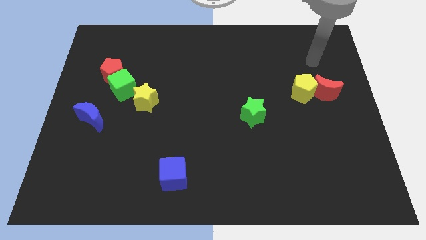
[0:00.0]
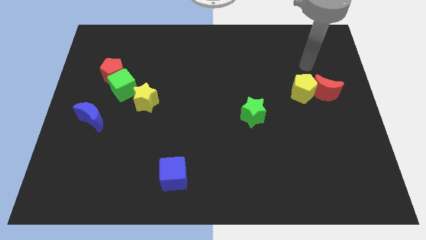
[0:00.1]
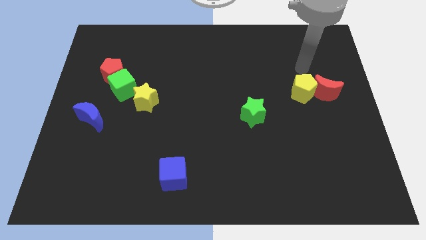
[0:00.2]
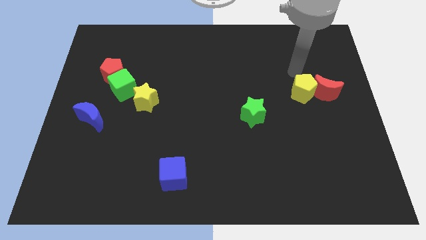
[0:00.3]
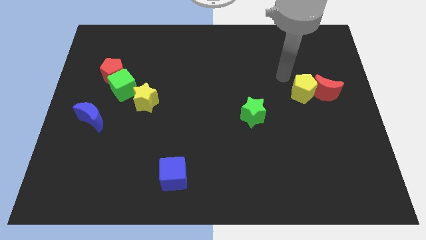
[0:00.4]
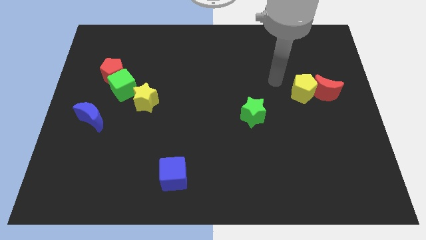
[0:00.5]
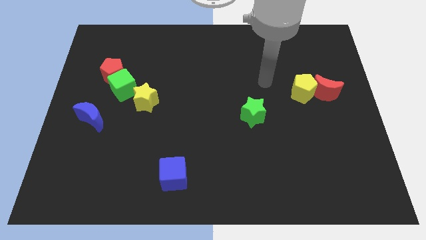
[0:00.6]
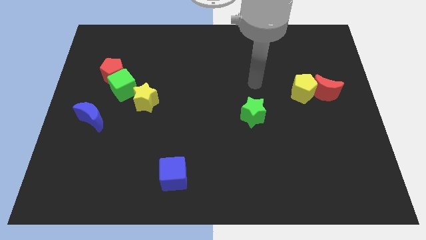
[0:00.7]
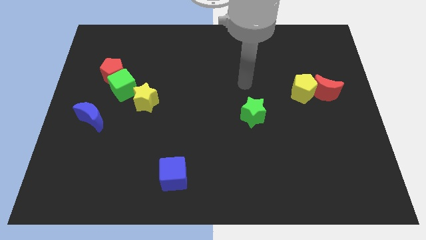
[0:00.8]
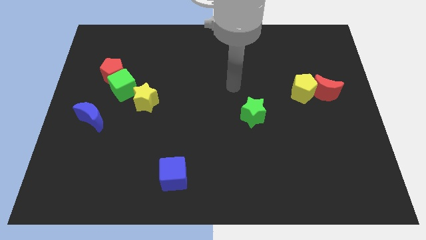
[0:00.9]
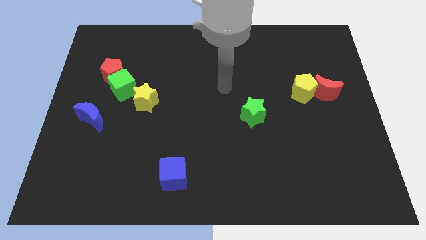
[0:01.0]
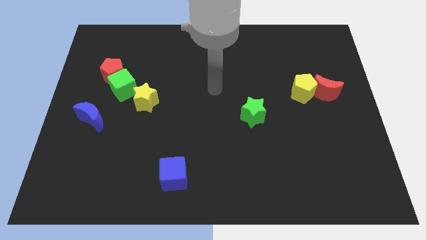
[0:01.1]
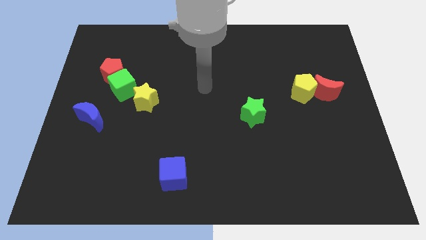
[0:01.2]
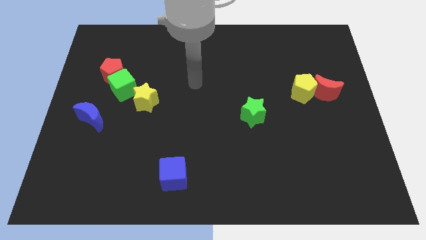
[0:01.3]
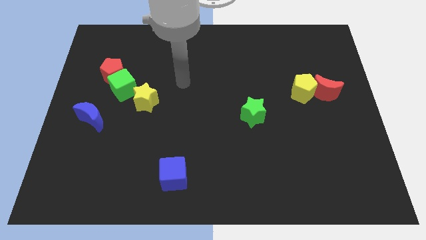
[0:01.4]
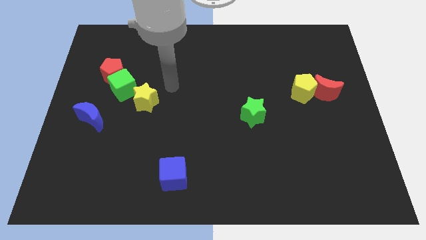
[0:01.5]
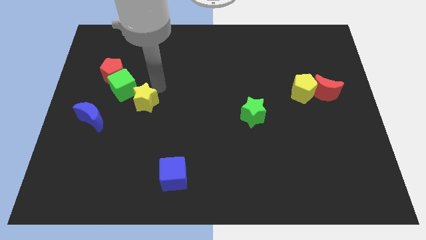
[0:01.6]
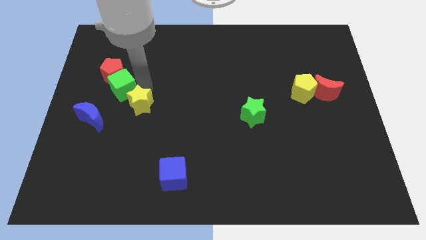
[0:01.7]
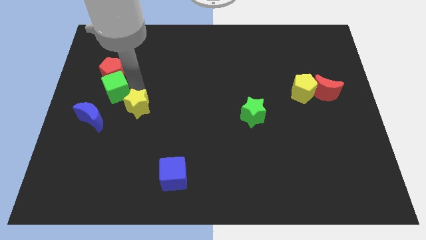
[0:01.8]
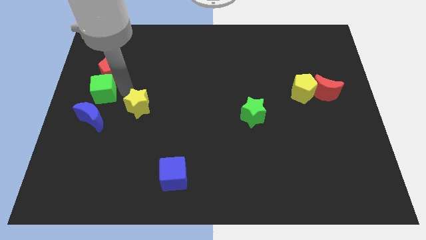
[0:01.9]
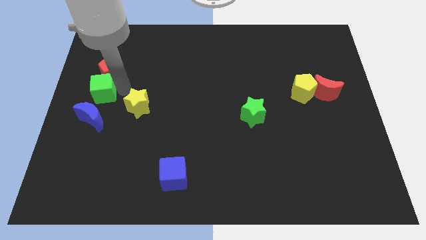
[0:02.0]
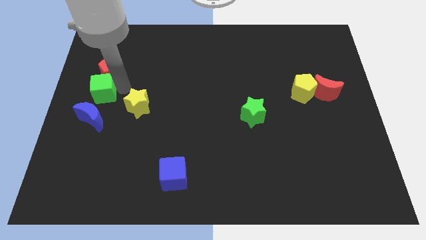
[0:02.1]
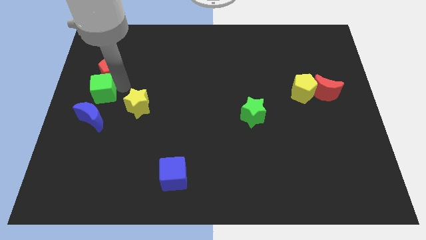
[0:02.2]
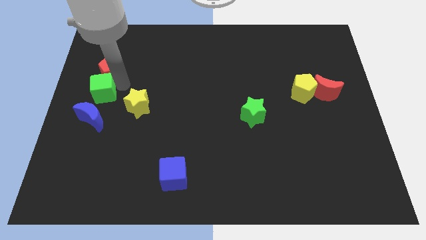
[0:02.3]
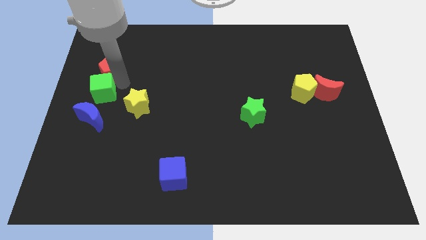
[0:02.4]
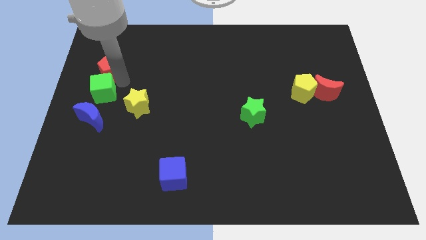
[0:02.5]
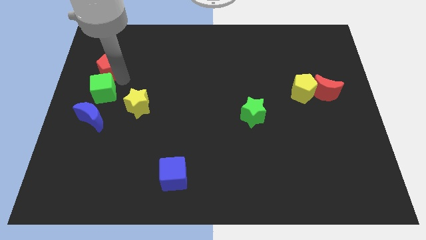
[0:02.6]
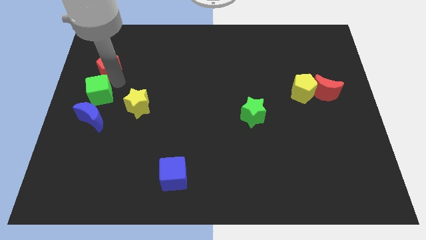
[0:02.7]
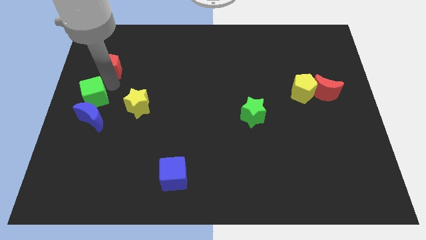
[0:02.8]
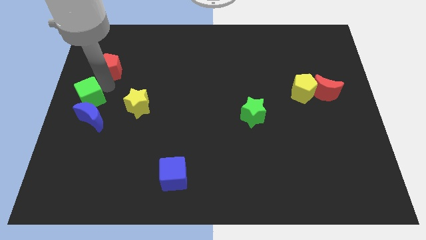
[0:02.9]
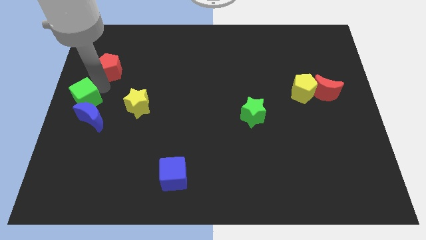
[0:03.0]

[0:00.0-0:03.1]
separate the red pentagon from the green cube

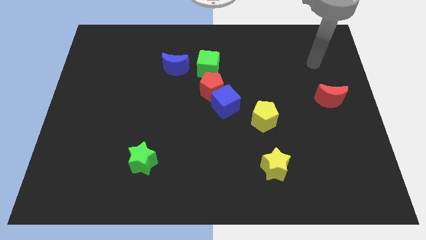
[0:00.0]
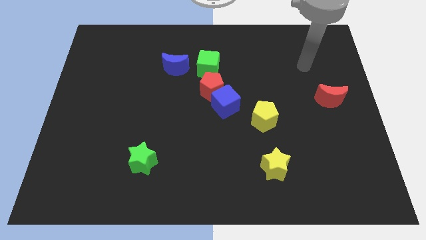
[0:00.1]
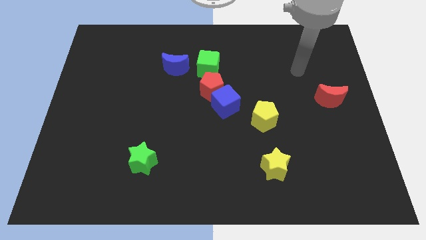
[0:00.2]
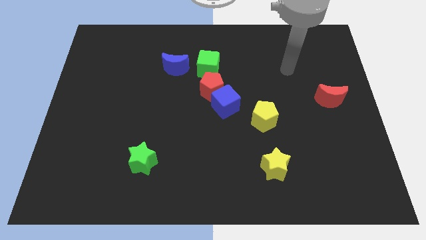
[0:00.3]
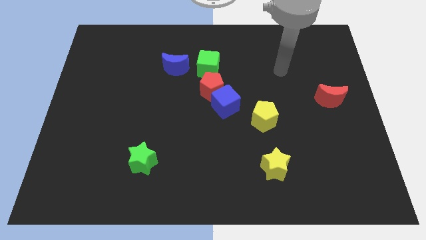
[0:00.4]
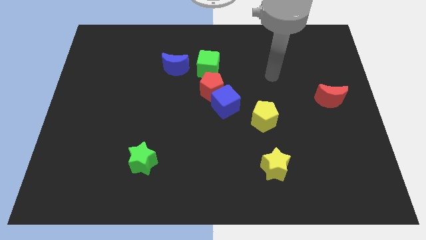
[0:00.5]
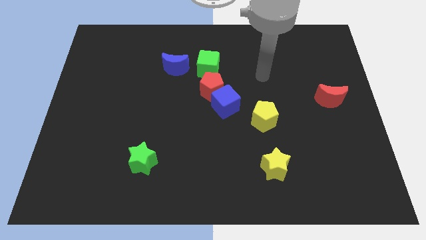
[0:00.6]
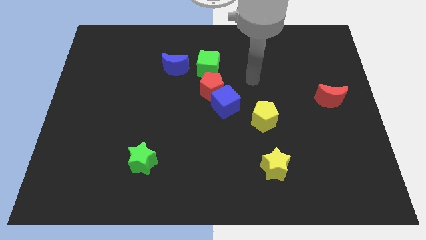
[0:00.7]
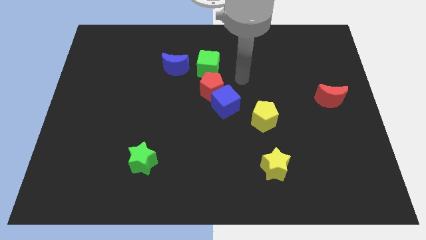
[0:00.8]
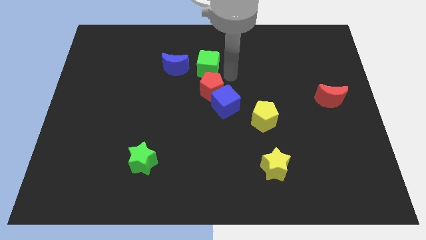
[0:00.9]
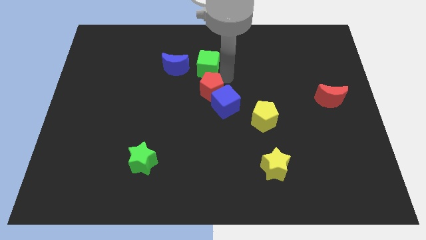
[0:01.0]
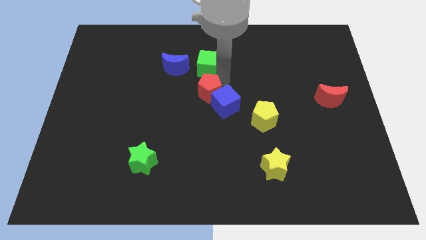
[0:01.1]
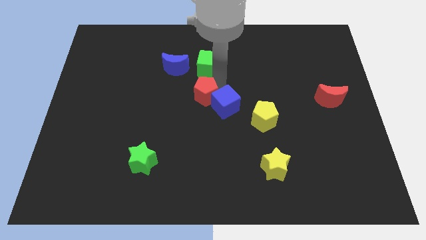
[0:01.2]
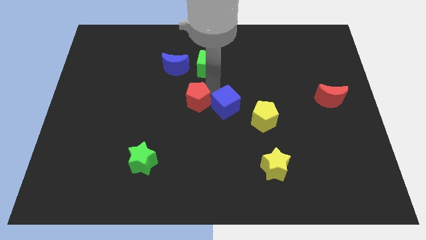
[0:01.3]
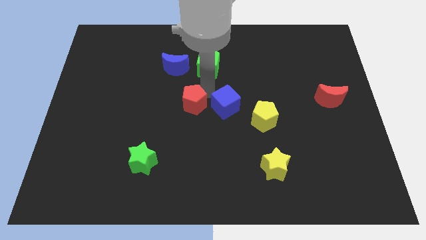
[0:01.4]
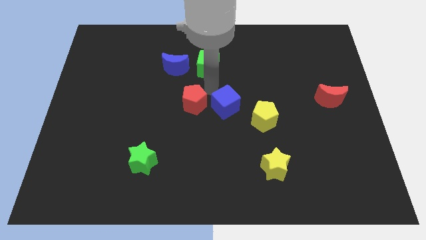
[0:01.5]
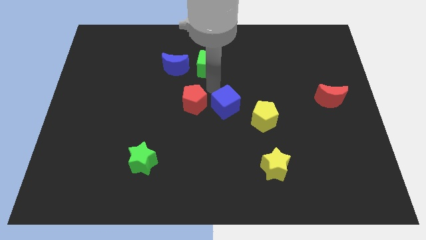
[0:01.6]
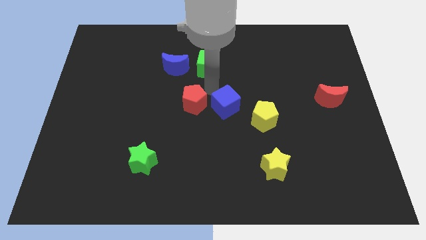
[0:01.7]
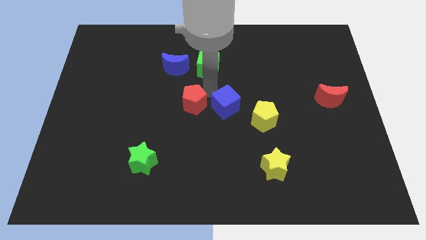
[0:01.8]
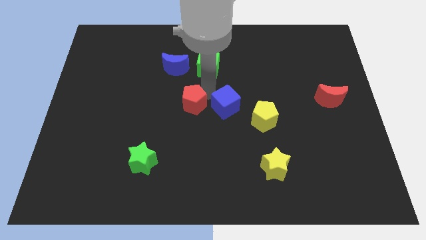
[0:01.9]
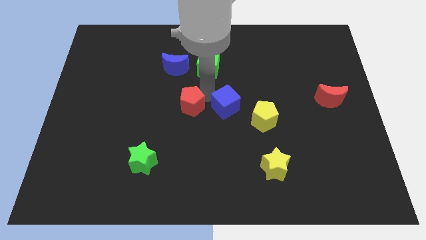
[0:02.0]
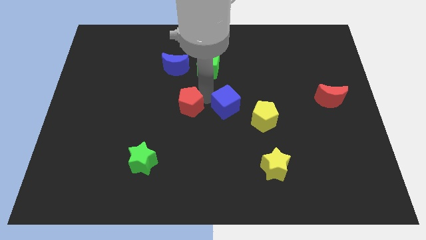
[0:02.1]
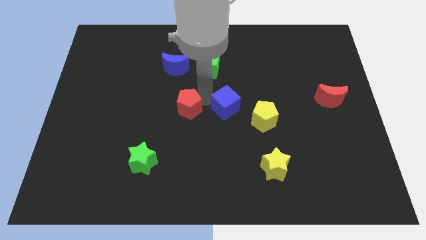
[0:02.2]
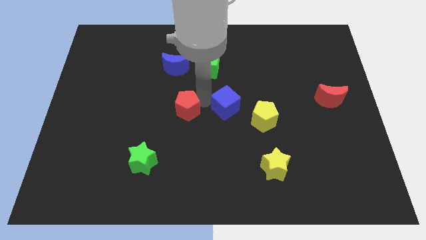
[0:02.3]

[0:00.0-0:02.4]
separate the red pentagon from the blue cube and green cube

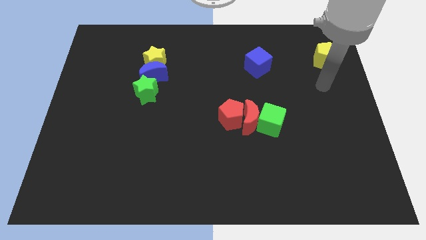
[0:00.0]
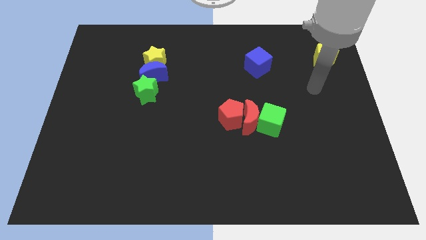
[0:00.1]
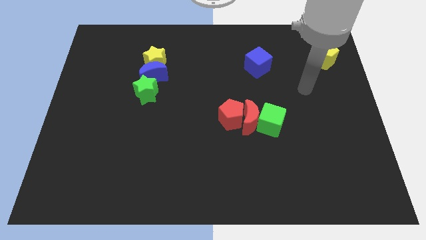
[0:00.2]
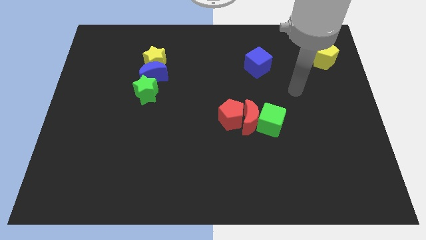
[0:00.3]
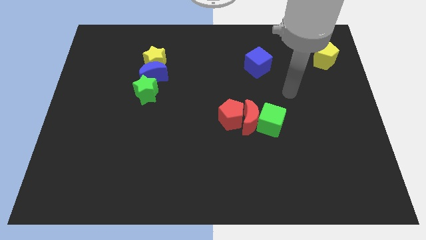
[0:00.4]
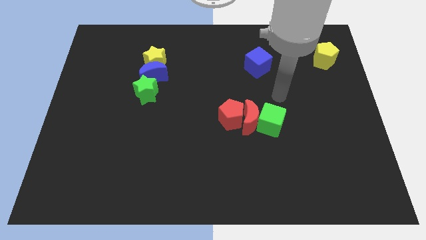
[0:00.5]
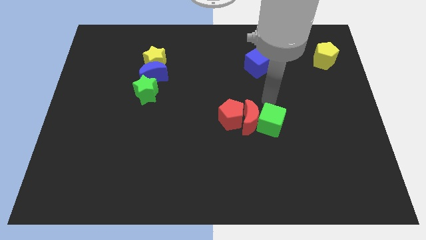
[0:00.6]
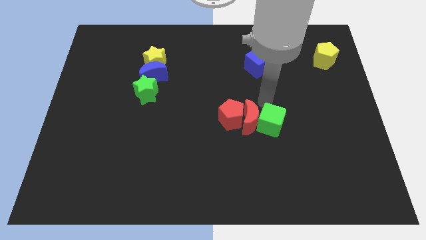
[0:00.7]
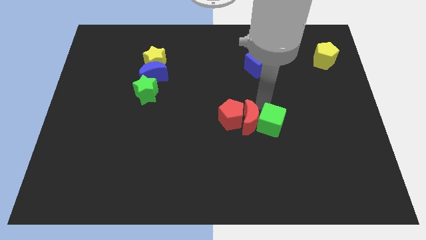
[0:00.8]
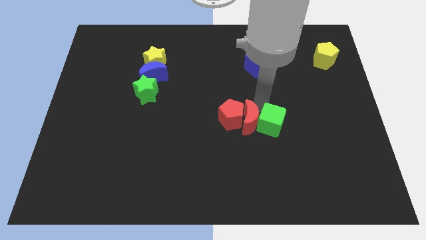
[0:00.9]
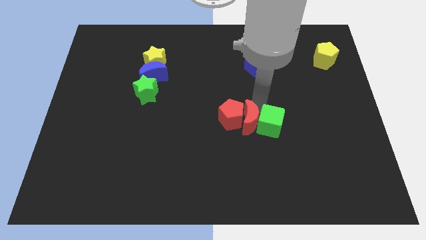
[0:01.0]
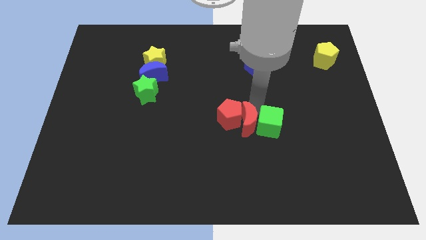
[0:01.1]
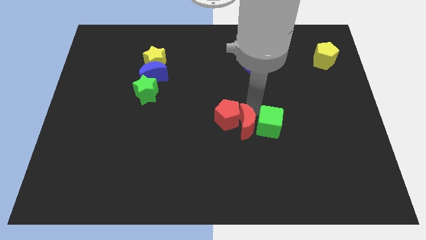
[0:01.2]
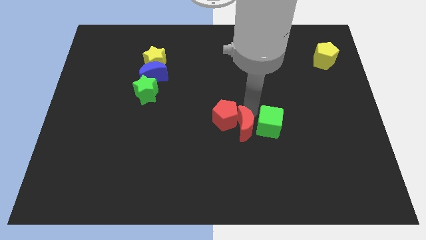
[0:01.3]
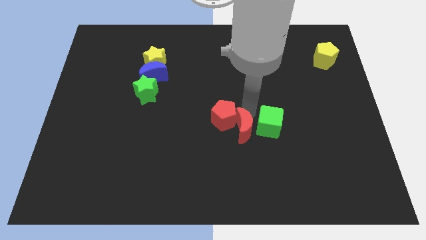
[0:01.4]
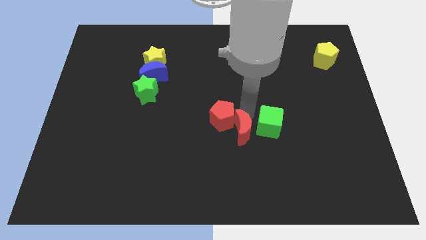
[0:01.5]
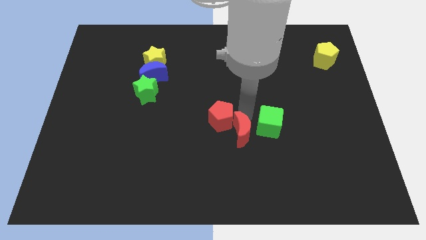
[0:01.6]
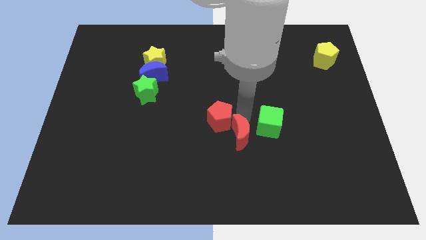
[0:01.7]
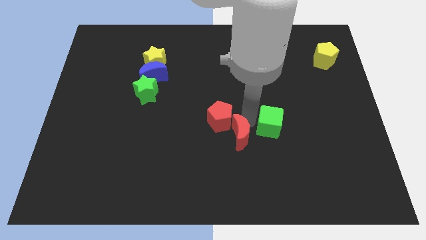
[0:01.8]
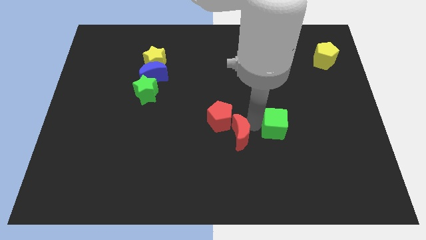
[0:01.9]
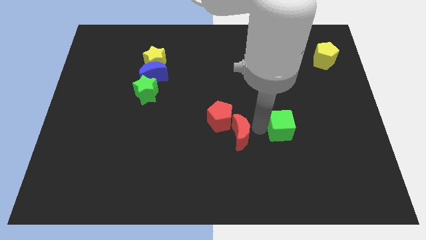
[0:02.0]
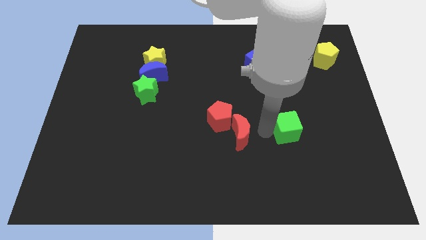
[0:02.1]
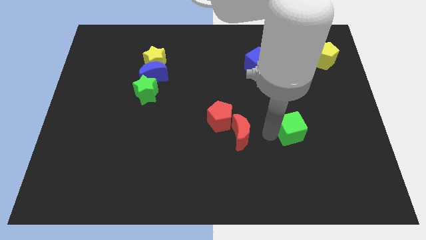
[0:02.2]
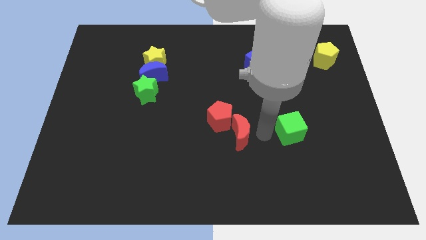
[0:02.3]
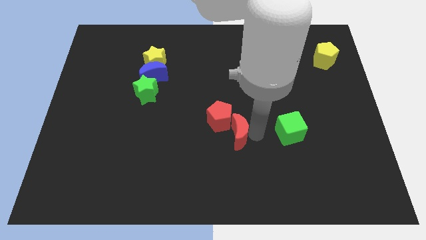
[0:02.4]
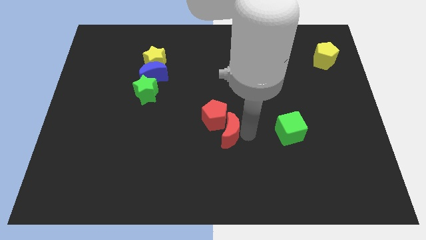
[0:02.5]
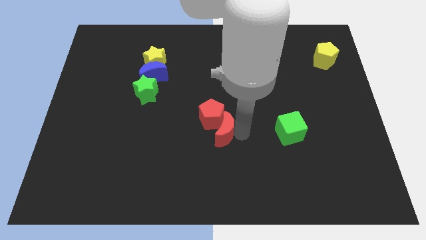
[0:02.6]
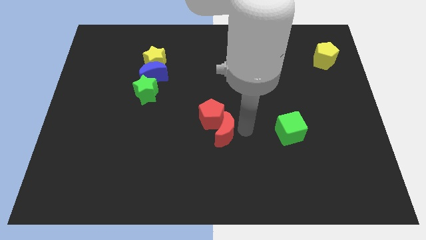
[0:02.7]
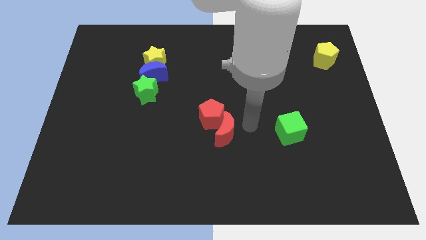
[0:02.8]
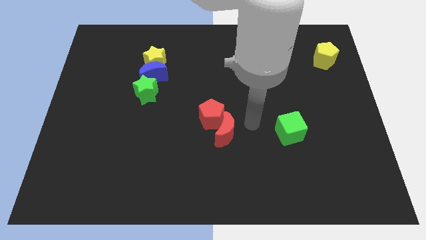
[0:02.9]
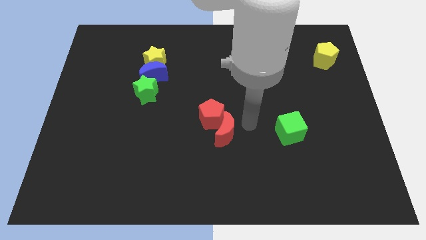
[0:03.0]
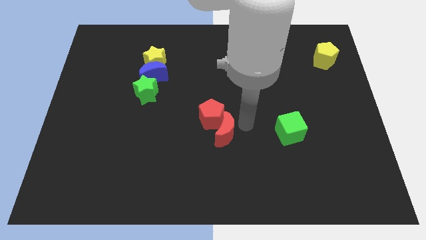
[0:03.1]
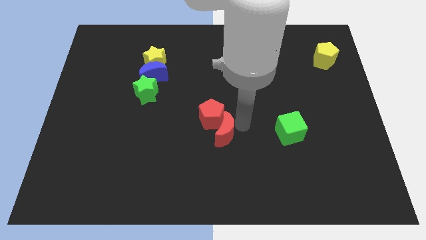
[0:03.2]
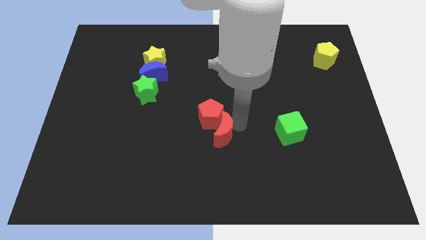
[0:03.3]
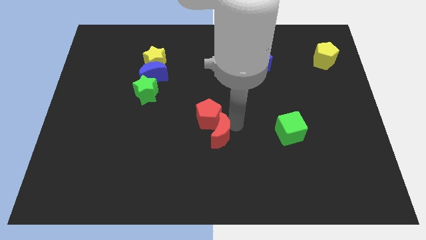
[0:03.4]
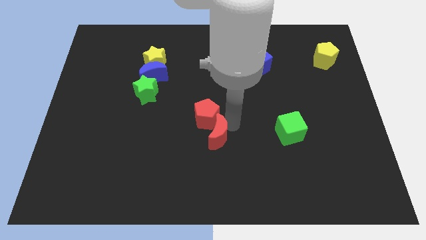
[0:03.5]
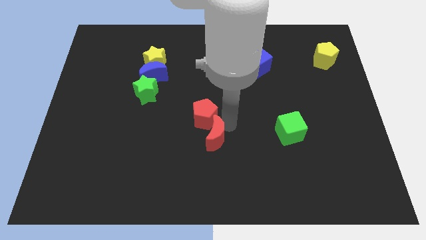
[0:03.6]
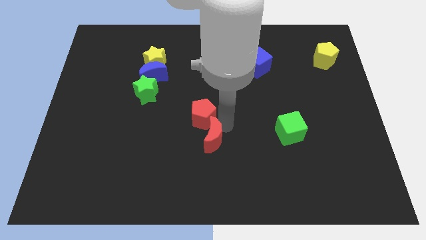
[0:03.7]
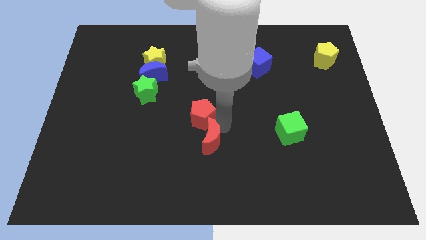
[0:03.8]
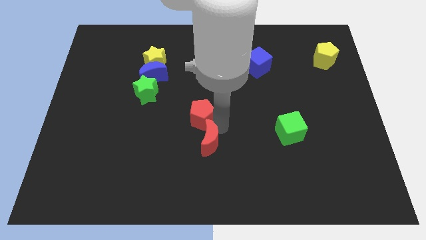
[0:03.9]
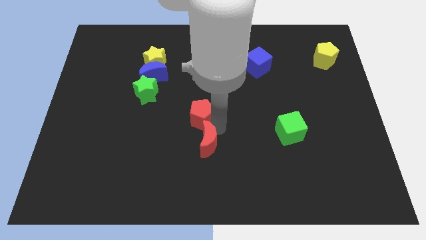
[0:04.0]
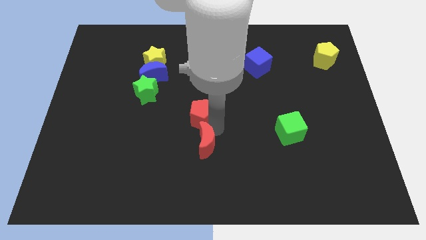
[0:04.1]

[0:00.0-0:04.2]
move the red moon away from the red pentagon and green cube
